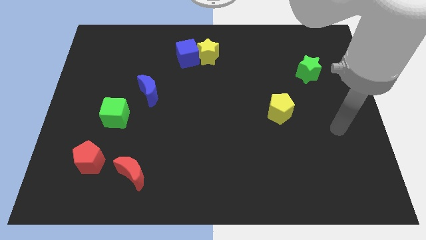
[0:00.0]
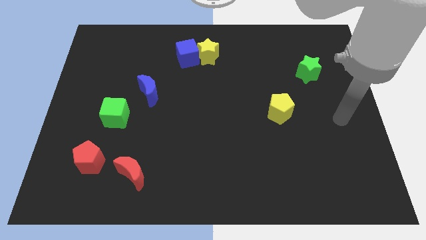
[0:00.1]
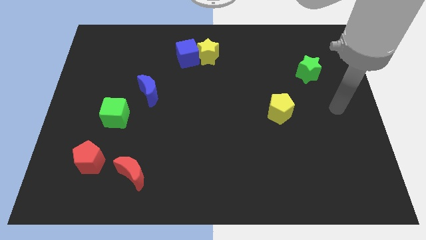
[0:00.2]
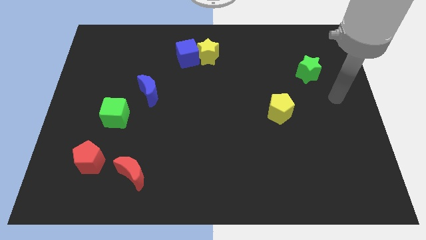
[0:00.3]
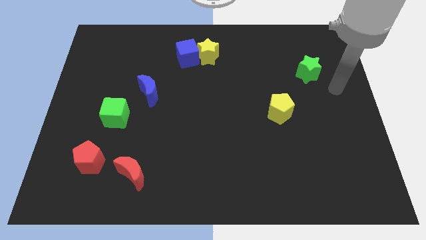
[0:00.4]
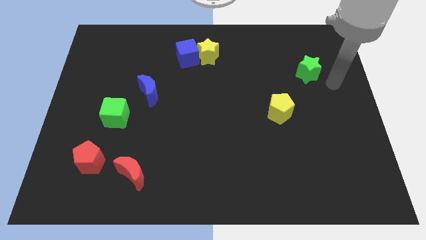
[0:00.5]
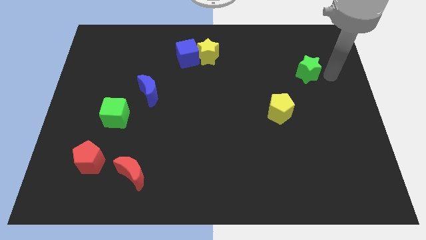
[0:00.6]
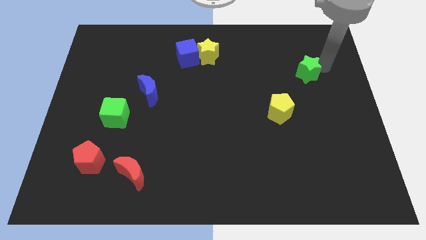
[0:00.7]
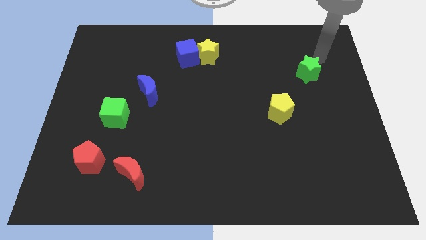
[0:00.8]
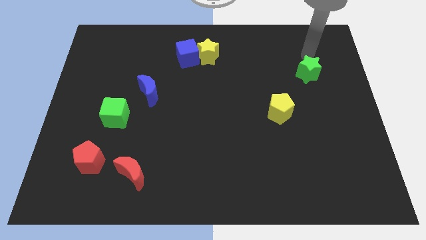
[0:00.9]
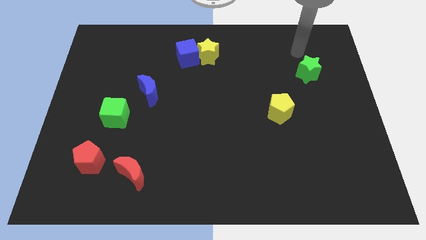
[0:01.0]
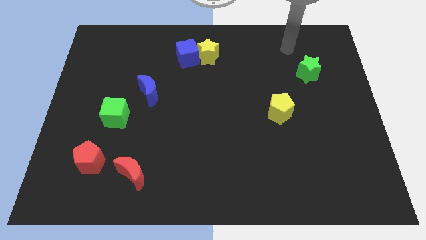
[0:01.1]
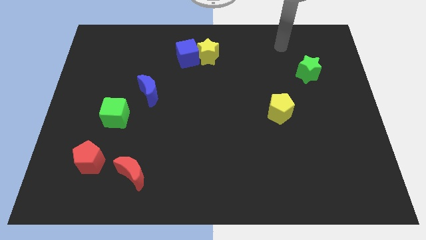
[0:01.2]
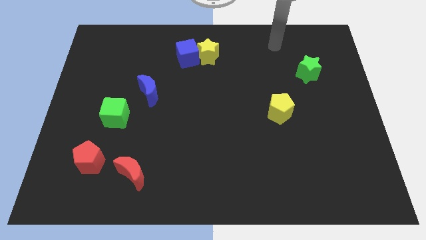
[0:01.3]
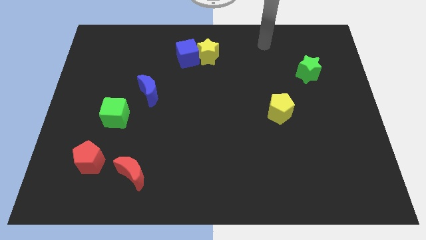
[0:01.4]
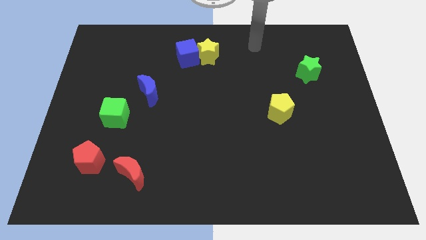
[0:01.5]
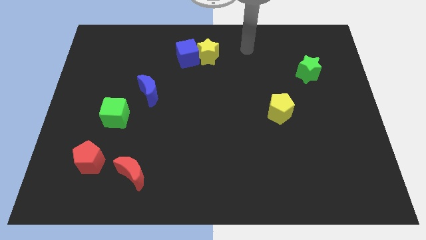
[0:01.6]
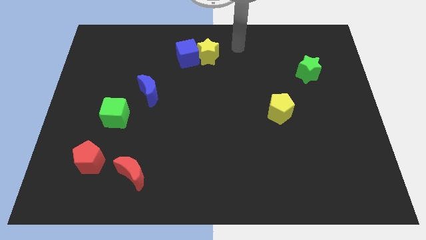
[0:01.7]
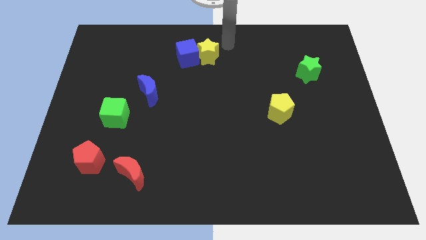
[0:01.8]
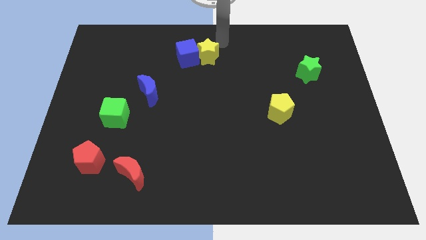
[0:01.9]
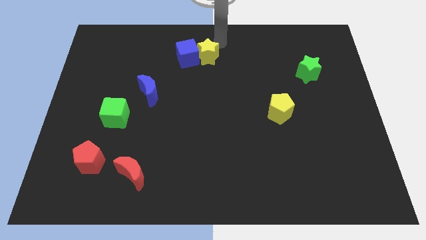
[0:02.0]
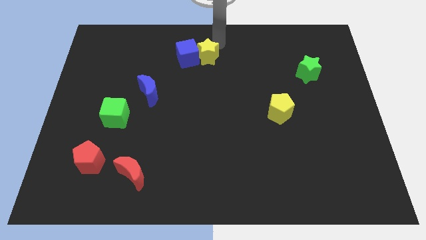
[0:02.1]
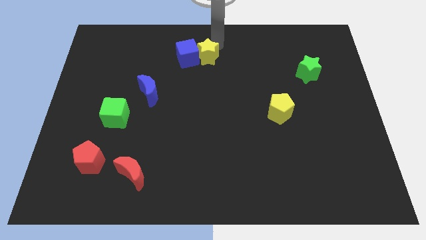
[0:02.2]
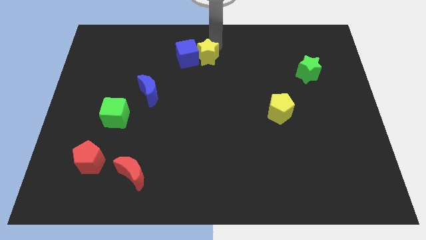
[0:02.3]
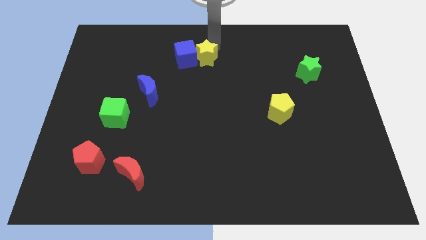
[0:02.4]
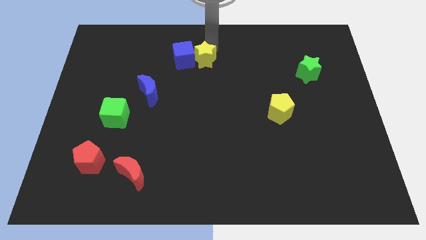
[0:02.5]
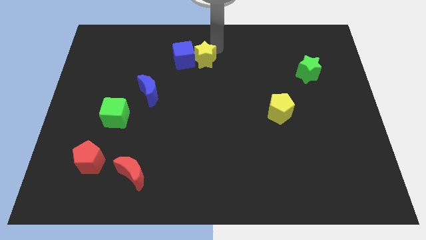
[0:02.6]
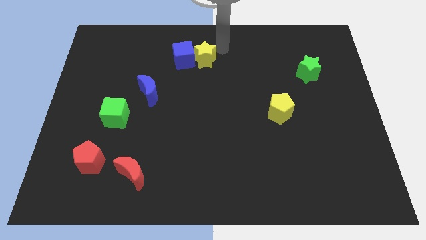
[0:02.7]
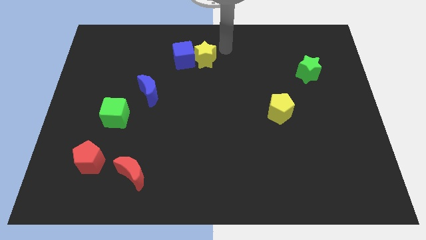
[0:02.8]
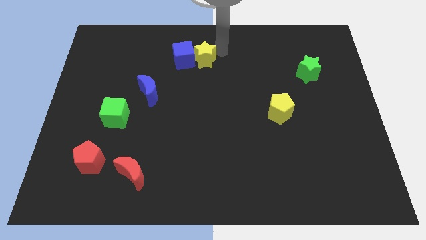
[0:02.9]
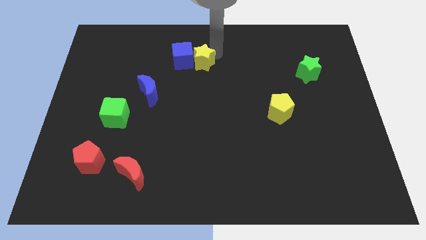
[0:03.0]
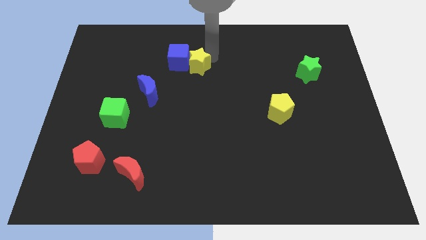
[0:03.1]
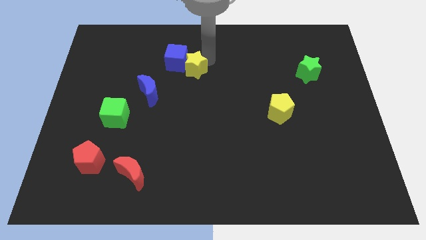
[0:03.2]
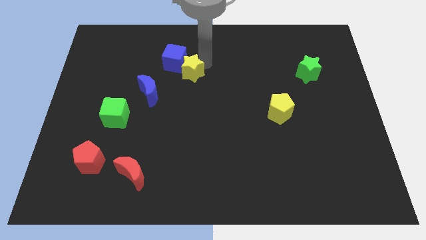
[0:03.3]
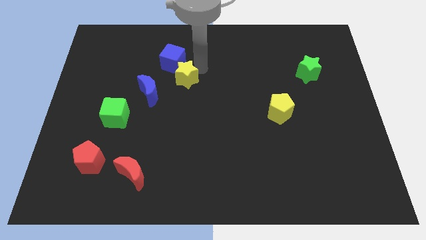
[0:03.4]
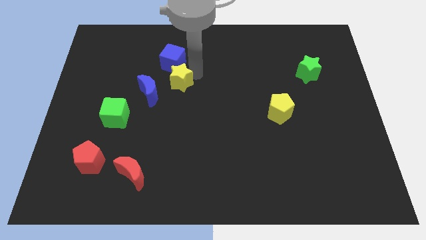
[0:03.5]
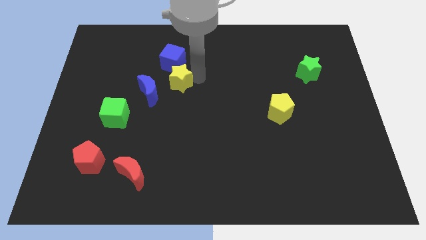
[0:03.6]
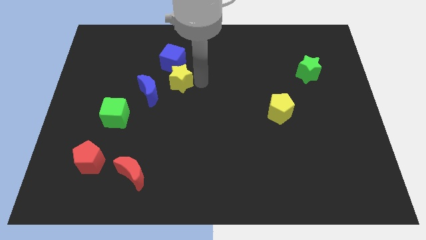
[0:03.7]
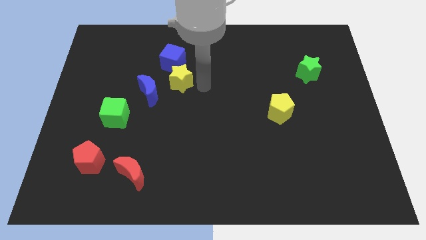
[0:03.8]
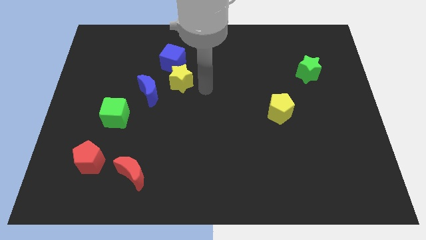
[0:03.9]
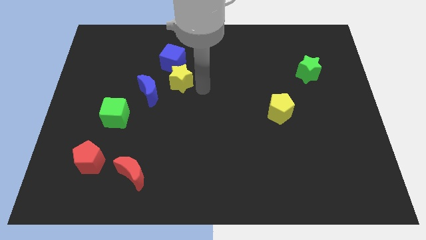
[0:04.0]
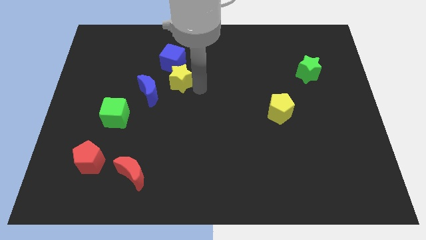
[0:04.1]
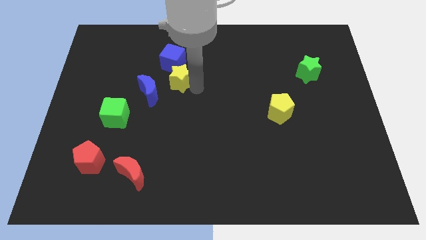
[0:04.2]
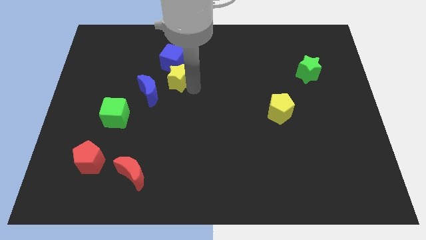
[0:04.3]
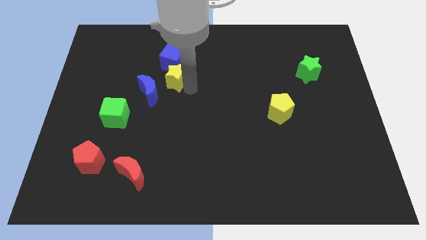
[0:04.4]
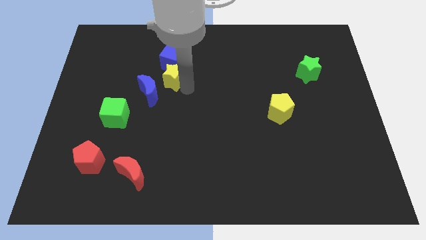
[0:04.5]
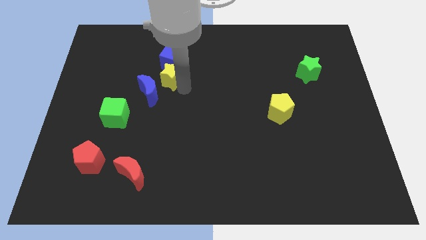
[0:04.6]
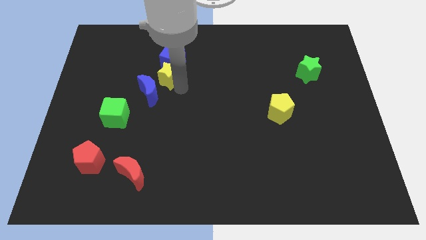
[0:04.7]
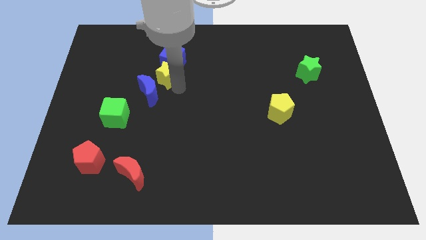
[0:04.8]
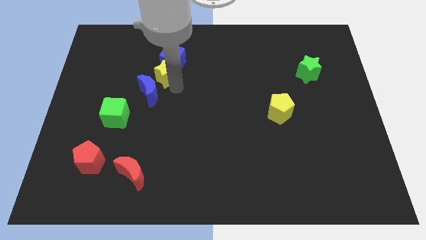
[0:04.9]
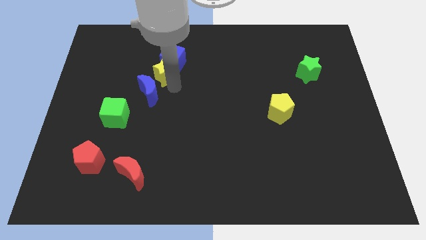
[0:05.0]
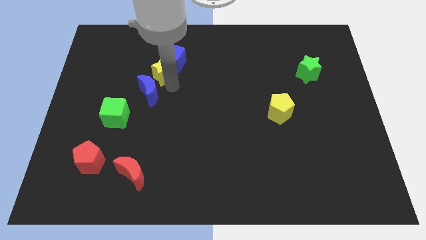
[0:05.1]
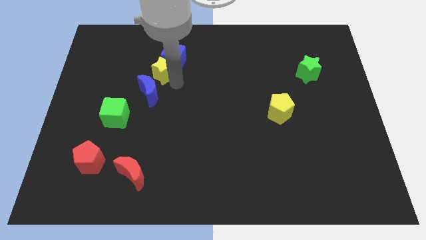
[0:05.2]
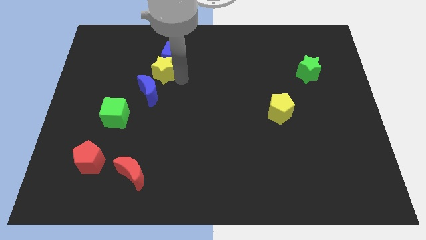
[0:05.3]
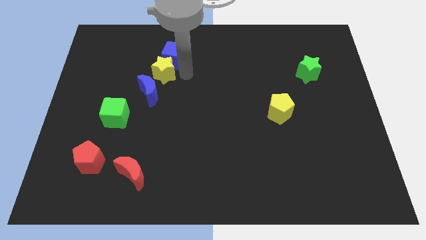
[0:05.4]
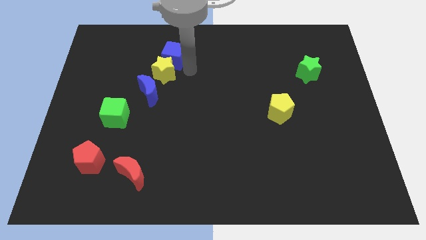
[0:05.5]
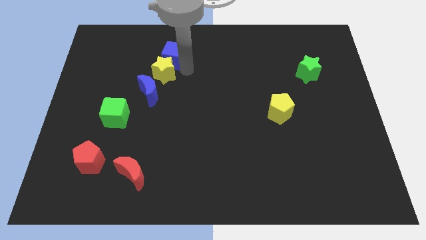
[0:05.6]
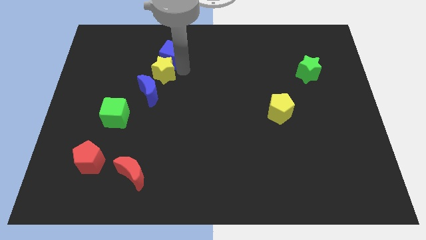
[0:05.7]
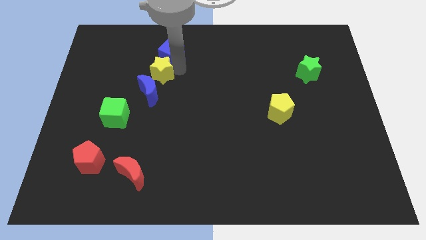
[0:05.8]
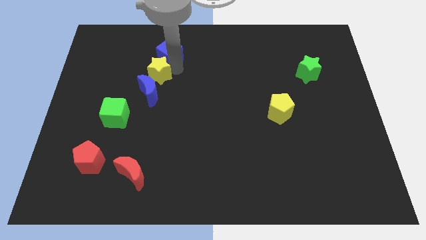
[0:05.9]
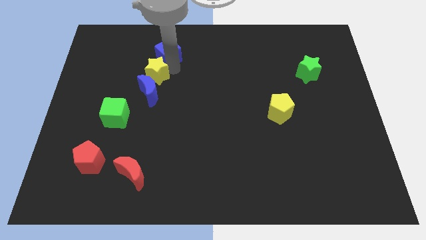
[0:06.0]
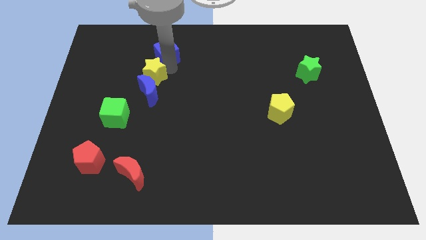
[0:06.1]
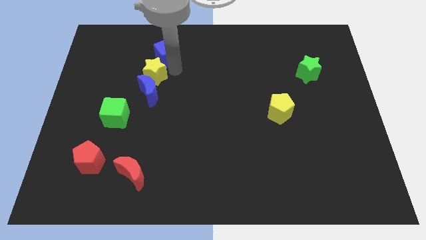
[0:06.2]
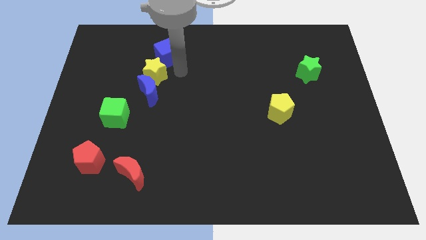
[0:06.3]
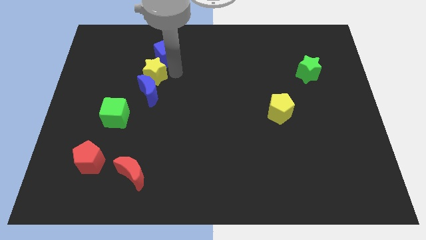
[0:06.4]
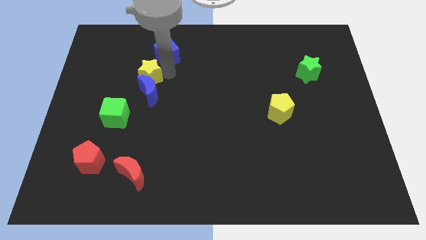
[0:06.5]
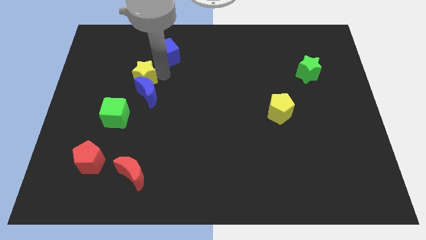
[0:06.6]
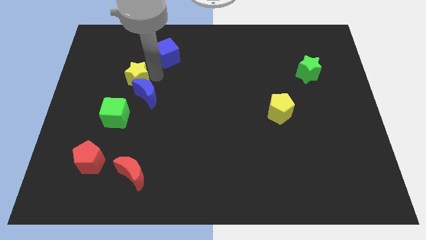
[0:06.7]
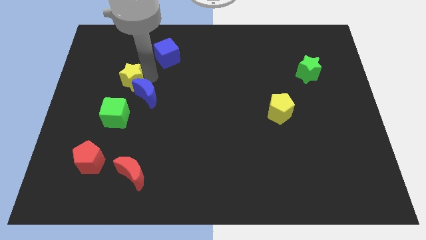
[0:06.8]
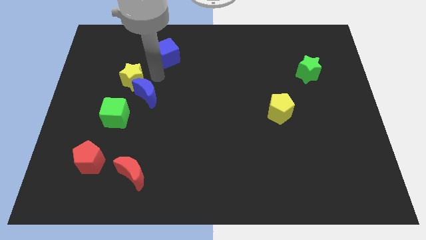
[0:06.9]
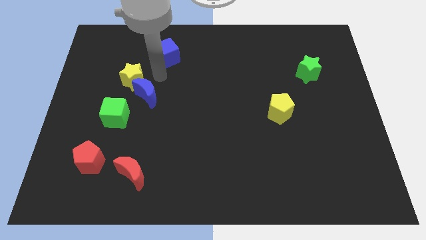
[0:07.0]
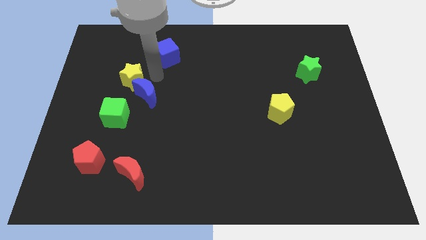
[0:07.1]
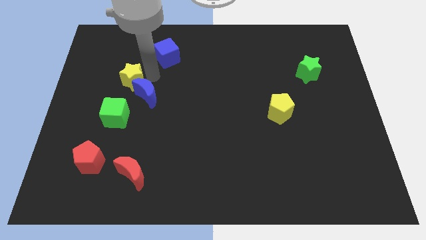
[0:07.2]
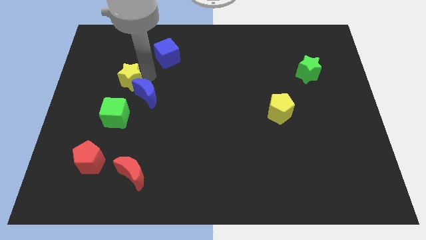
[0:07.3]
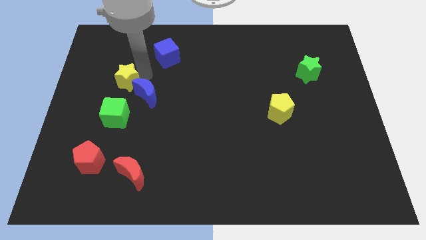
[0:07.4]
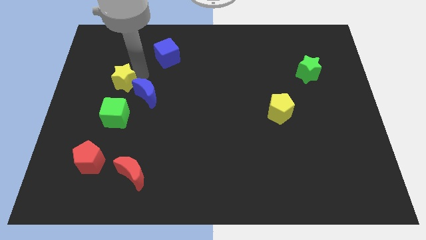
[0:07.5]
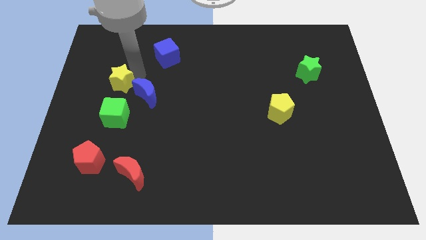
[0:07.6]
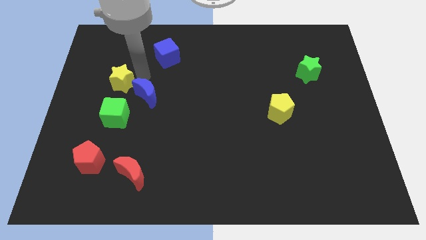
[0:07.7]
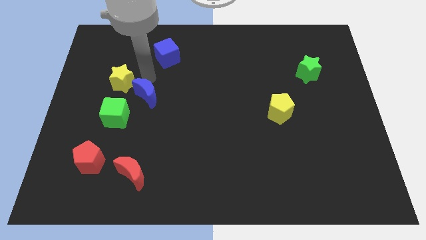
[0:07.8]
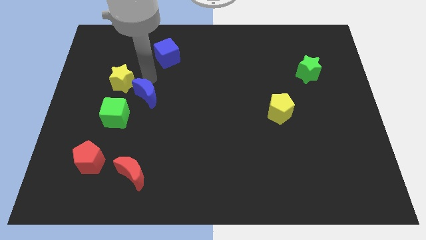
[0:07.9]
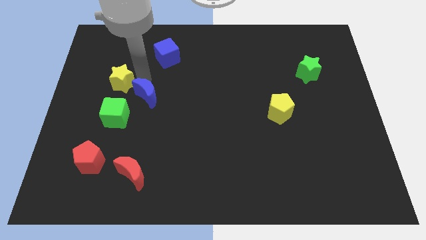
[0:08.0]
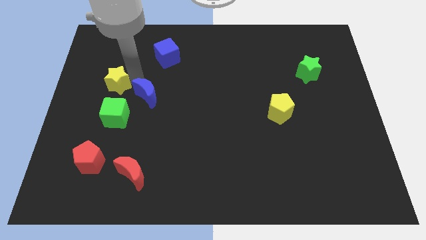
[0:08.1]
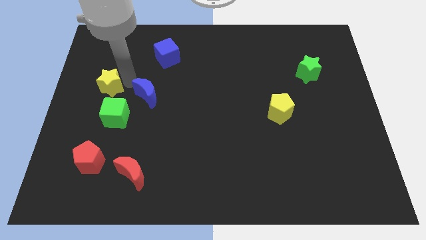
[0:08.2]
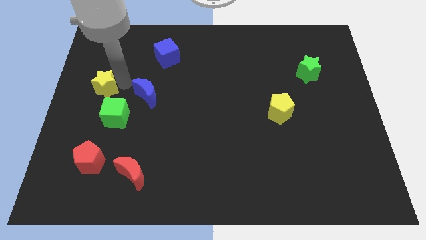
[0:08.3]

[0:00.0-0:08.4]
slide the yellow star to the left side of the board
